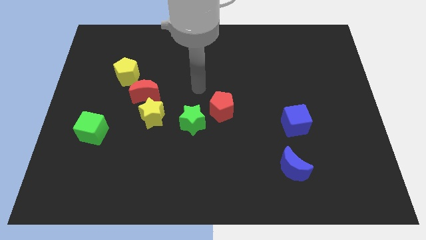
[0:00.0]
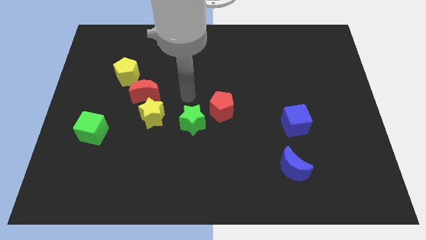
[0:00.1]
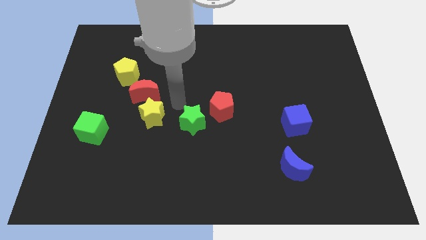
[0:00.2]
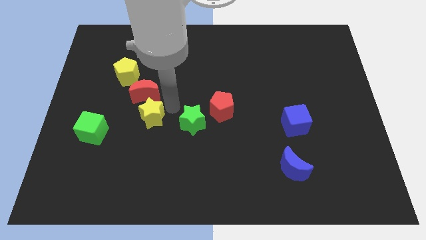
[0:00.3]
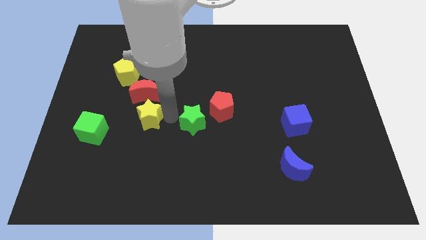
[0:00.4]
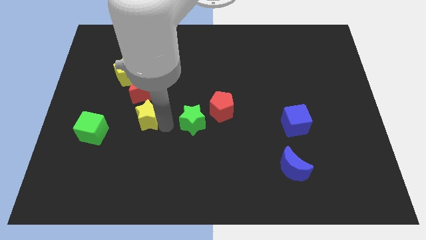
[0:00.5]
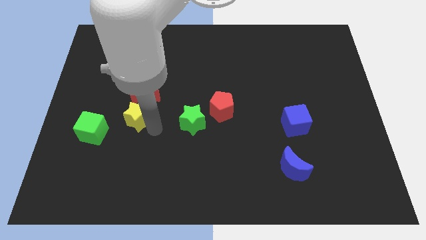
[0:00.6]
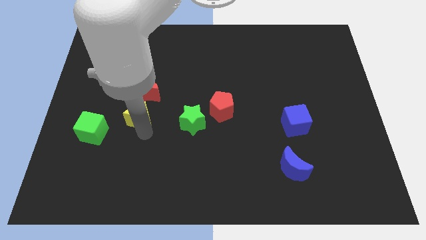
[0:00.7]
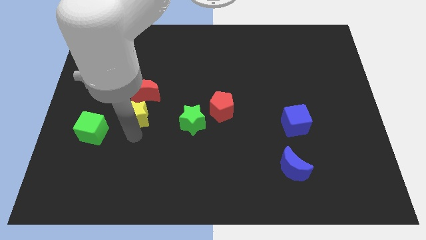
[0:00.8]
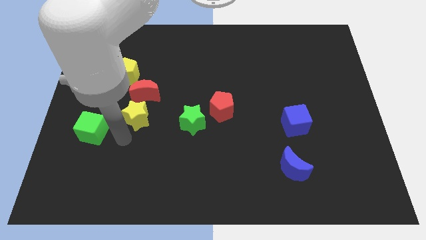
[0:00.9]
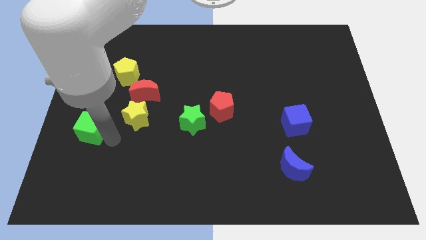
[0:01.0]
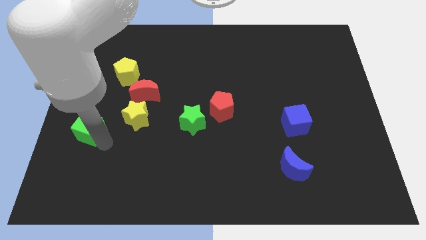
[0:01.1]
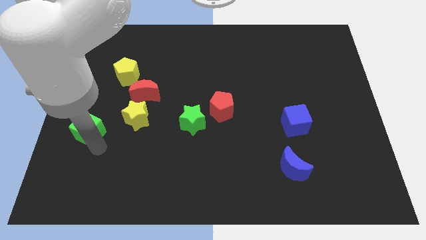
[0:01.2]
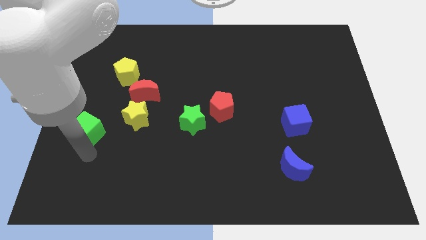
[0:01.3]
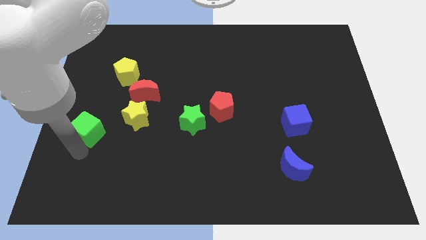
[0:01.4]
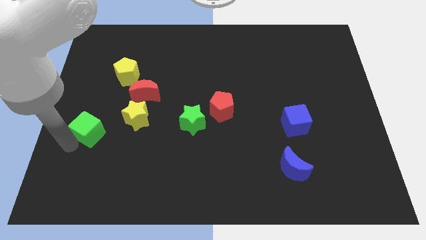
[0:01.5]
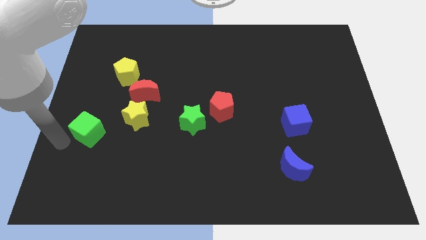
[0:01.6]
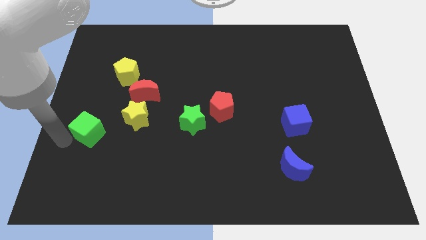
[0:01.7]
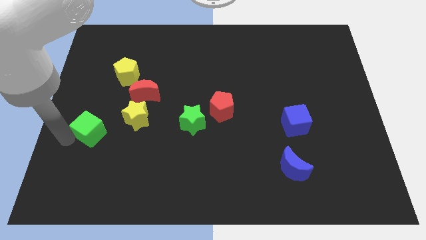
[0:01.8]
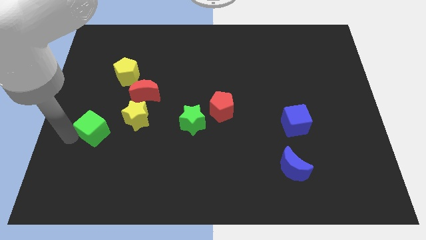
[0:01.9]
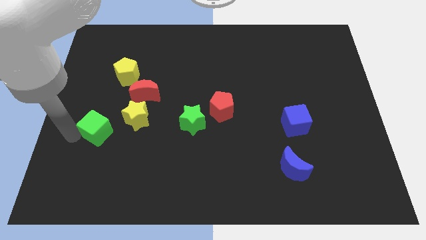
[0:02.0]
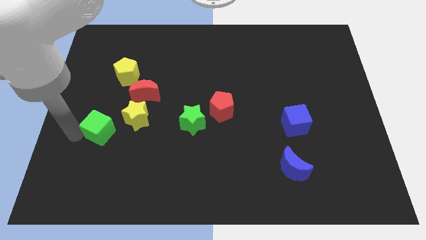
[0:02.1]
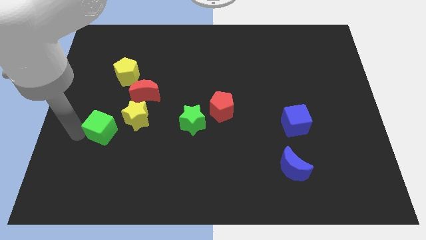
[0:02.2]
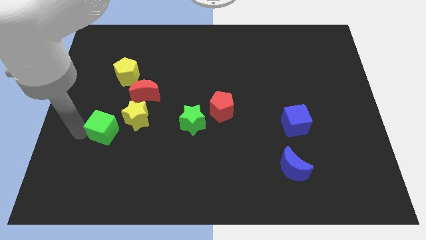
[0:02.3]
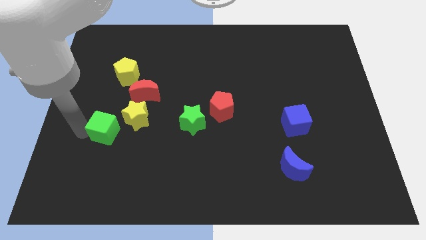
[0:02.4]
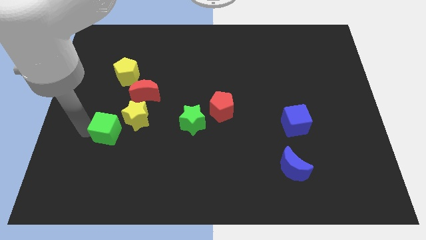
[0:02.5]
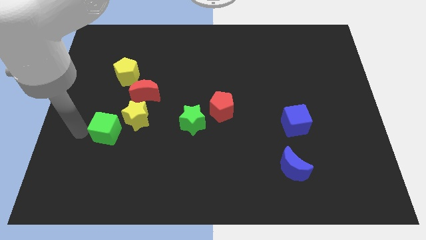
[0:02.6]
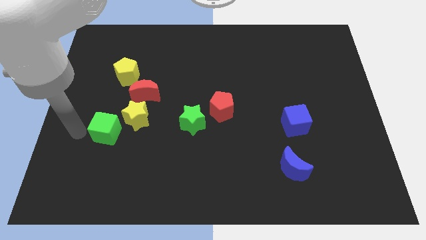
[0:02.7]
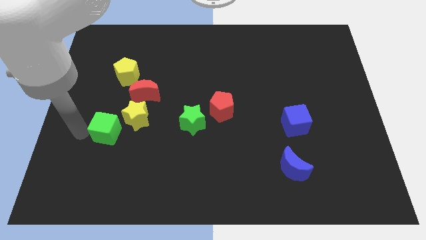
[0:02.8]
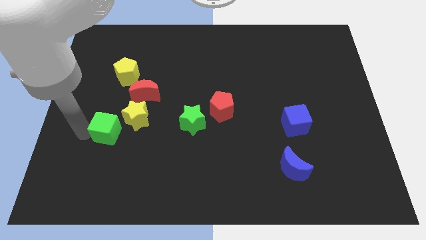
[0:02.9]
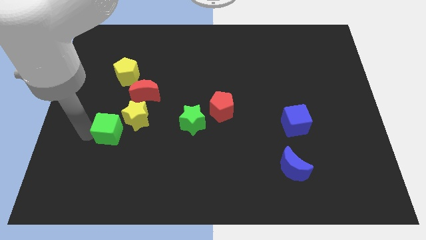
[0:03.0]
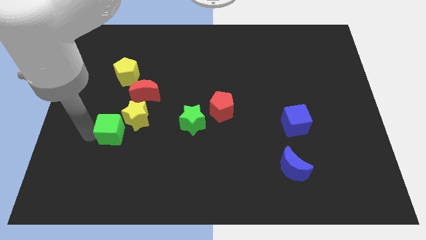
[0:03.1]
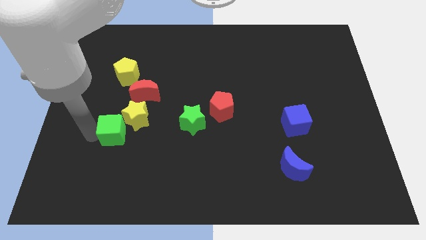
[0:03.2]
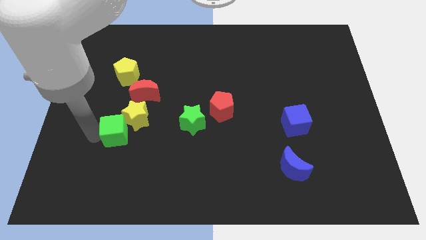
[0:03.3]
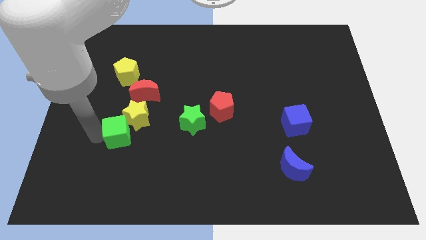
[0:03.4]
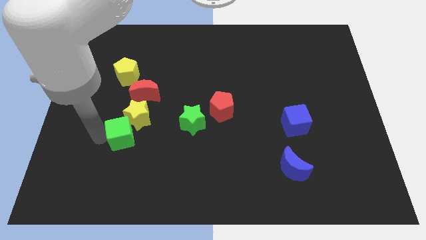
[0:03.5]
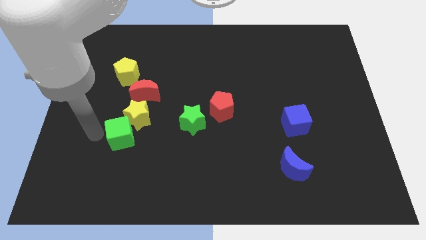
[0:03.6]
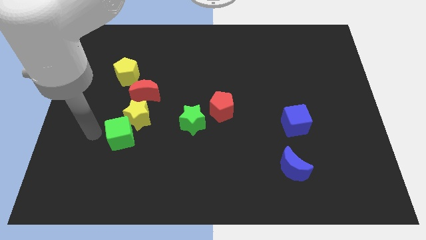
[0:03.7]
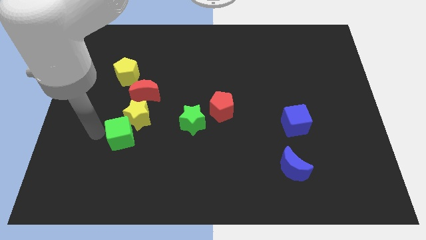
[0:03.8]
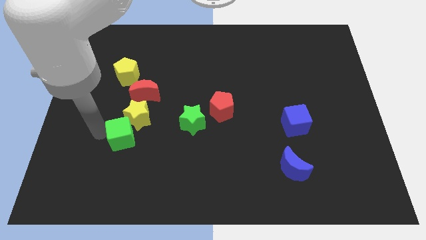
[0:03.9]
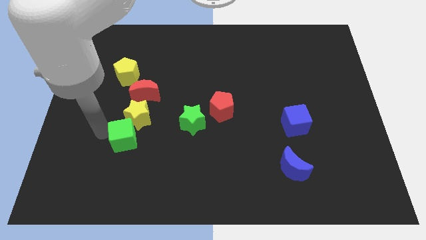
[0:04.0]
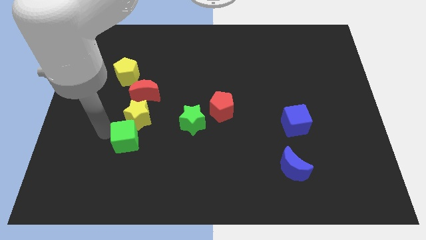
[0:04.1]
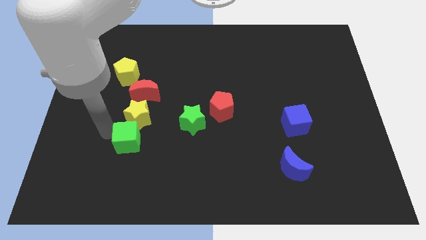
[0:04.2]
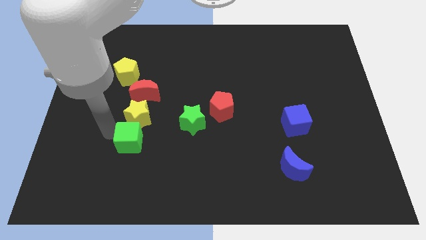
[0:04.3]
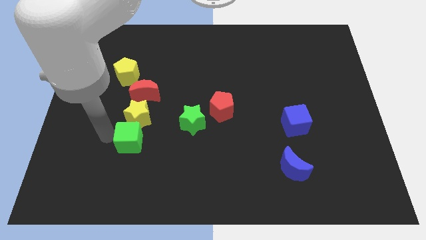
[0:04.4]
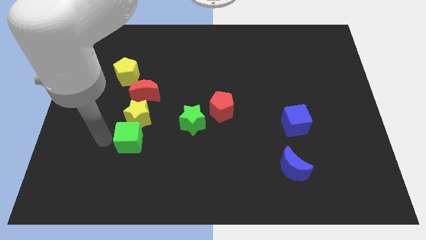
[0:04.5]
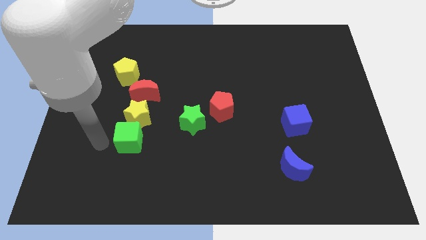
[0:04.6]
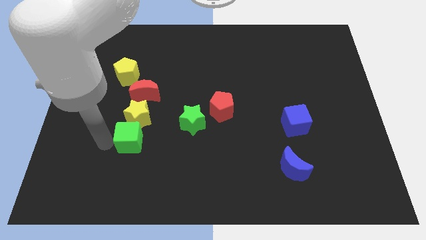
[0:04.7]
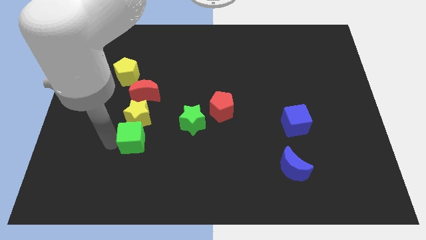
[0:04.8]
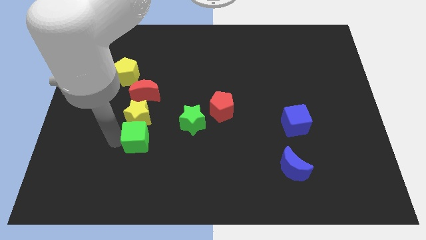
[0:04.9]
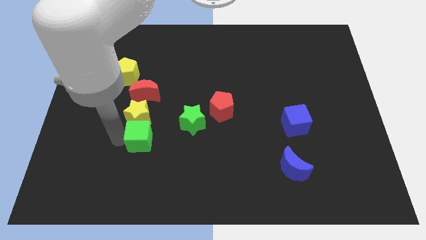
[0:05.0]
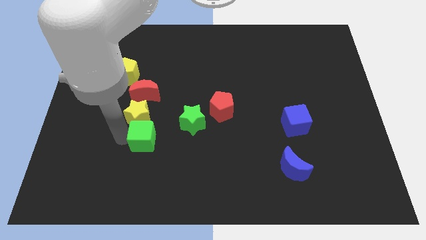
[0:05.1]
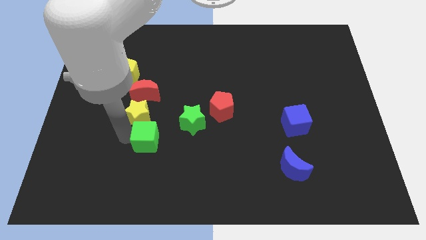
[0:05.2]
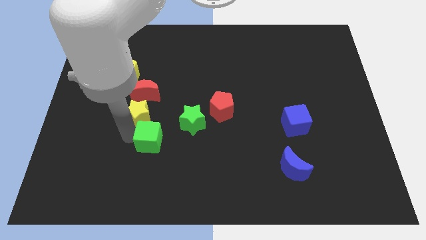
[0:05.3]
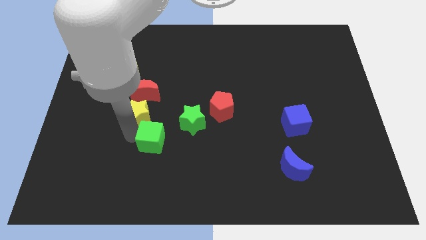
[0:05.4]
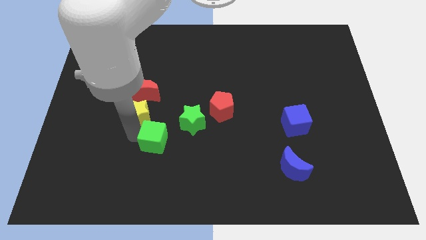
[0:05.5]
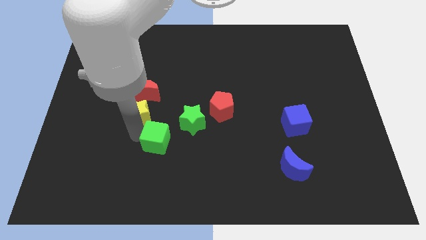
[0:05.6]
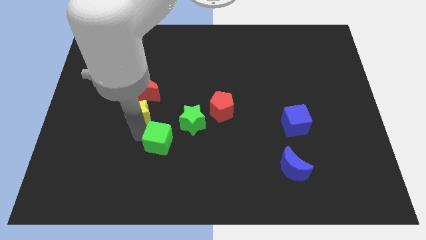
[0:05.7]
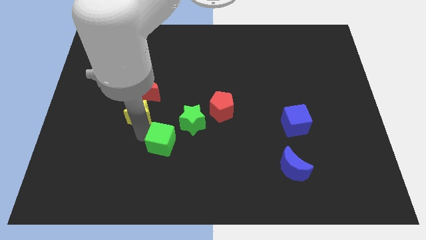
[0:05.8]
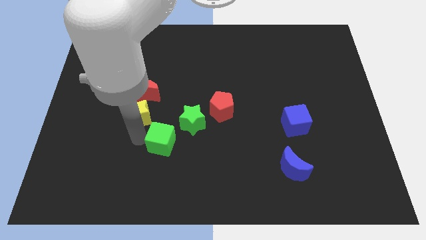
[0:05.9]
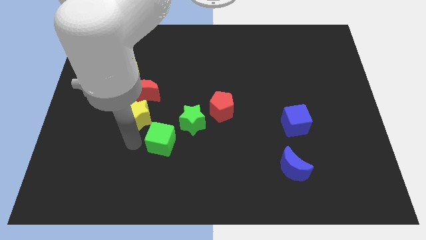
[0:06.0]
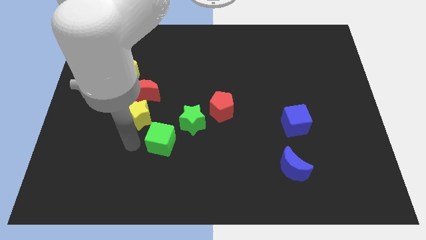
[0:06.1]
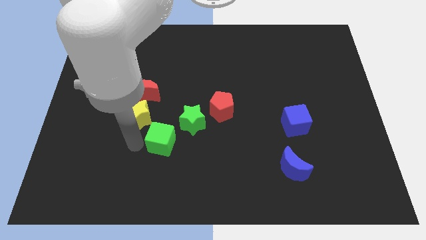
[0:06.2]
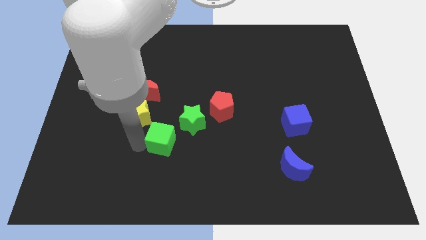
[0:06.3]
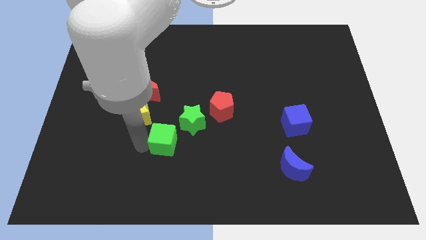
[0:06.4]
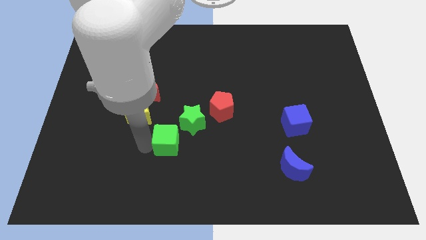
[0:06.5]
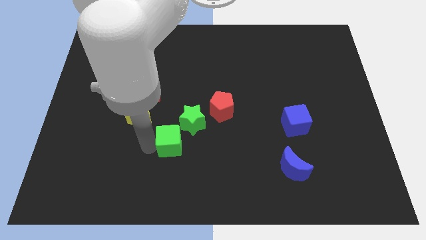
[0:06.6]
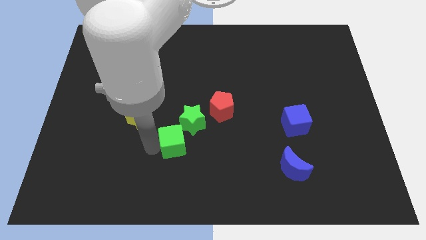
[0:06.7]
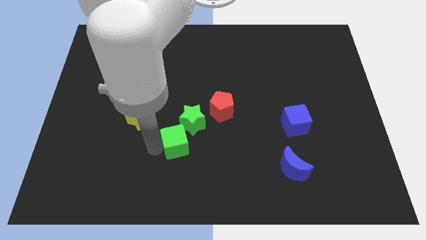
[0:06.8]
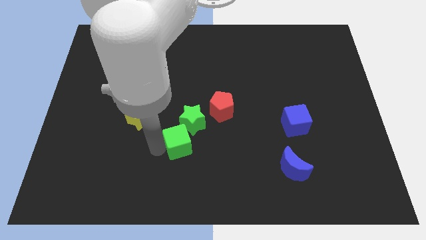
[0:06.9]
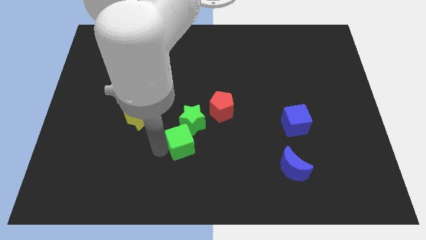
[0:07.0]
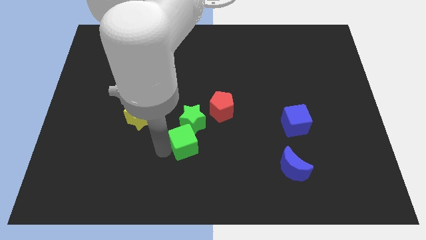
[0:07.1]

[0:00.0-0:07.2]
slide the green cube to the right

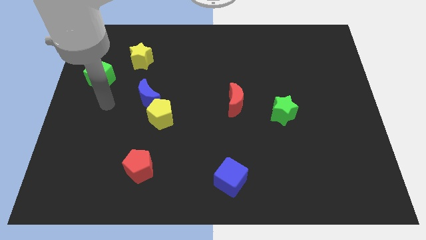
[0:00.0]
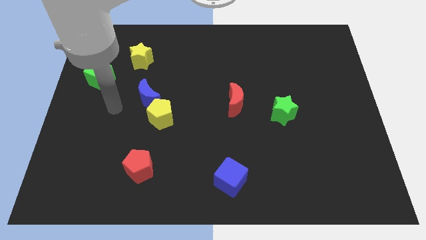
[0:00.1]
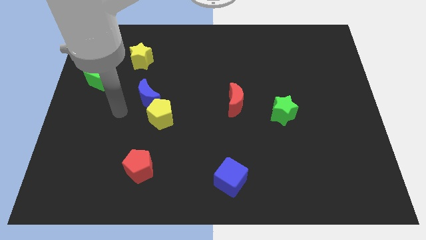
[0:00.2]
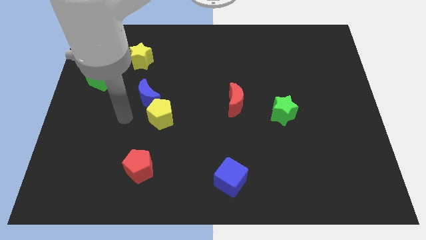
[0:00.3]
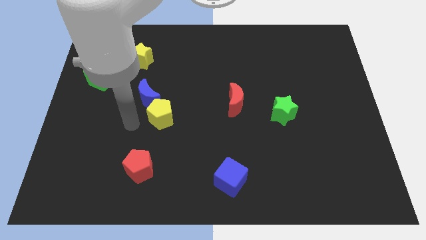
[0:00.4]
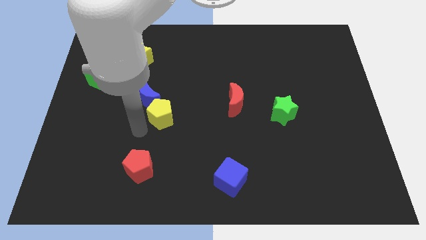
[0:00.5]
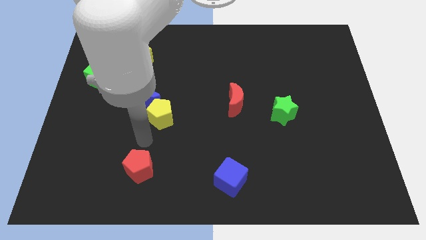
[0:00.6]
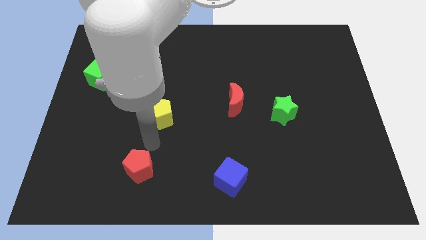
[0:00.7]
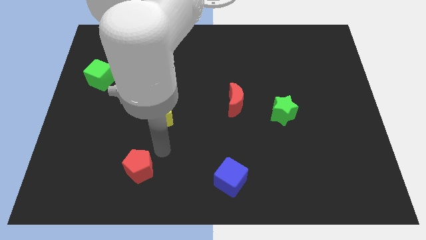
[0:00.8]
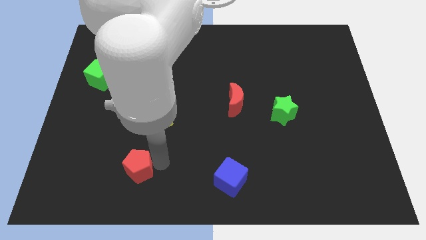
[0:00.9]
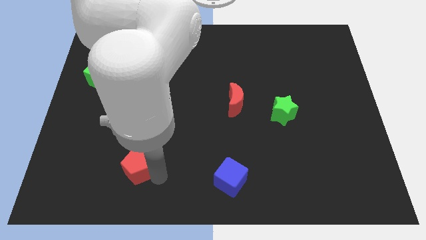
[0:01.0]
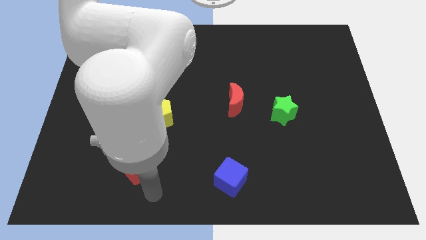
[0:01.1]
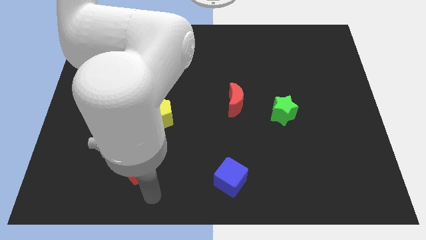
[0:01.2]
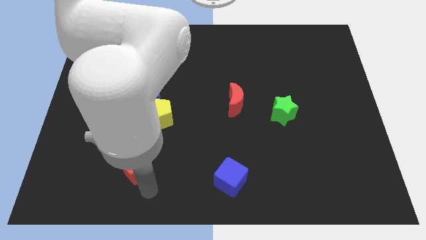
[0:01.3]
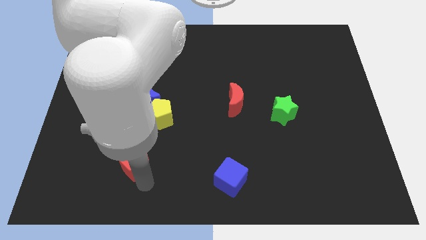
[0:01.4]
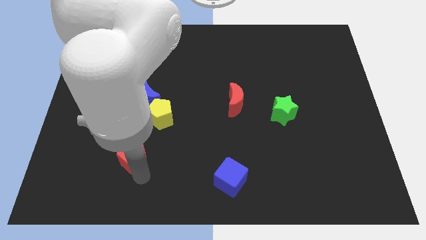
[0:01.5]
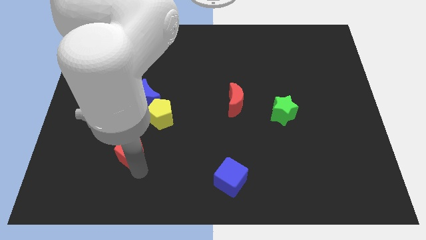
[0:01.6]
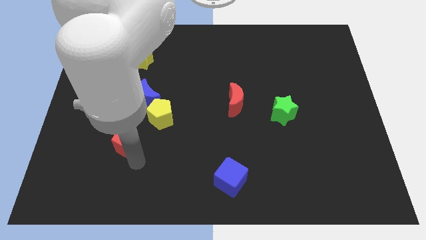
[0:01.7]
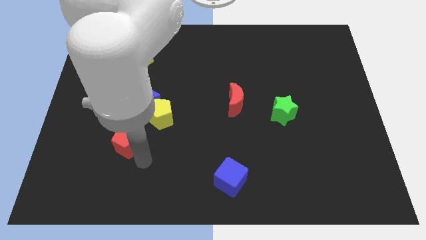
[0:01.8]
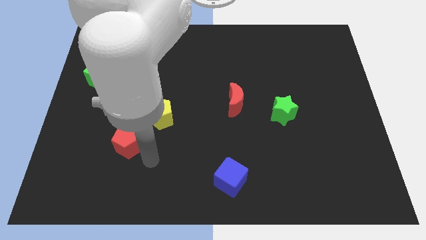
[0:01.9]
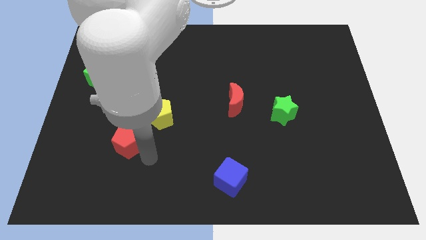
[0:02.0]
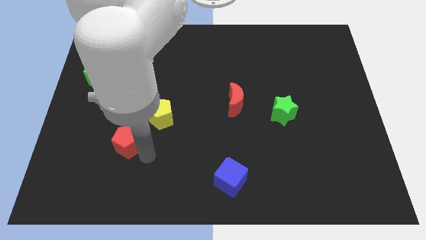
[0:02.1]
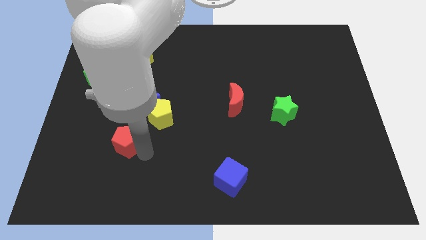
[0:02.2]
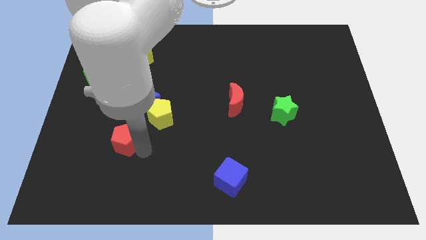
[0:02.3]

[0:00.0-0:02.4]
slightly push the red pentagon diagonally up and to the left
